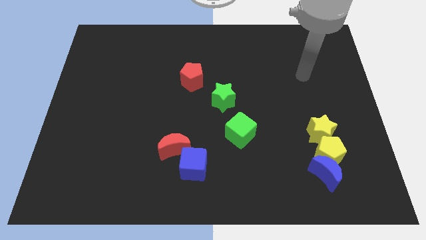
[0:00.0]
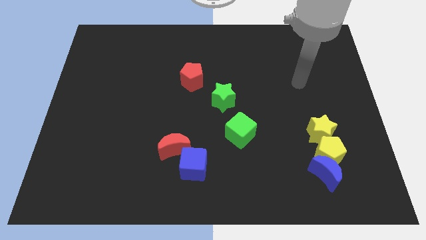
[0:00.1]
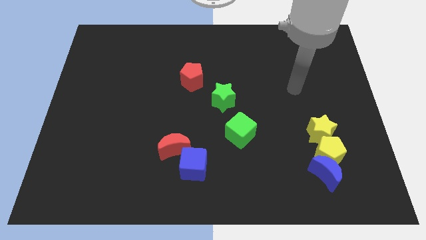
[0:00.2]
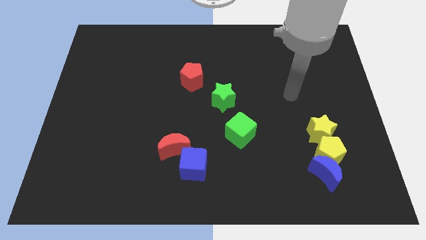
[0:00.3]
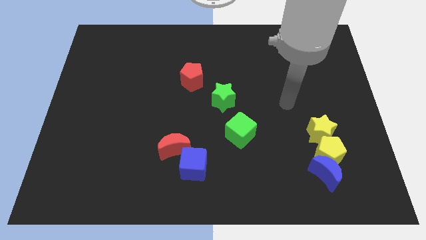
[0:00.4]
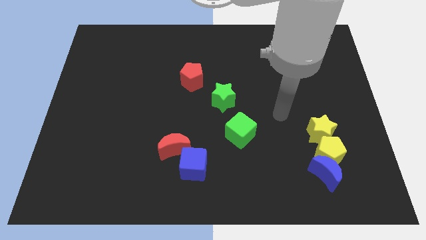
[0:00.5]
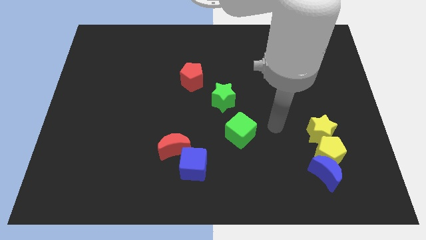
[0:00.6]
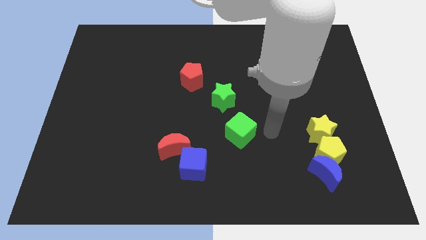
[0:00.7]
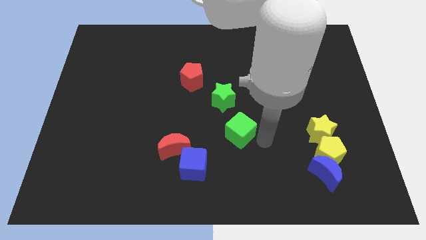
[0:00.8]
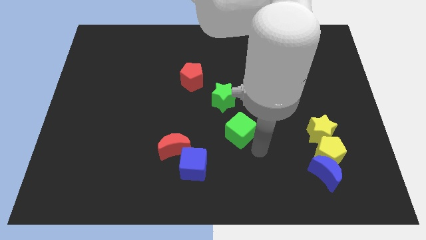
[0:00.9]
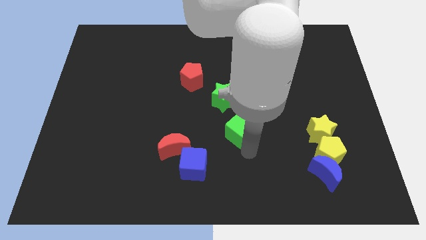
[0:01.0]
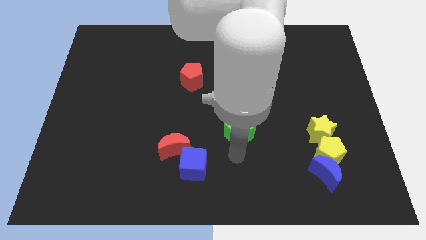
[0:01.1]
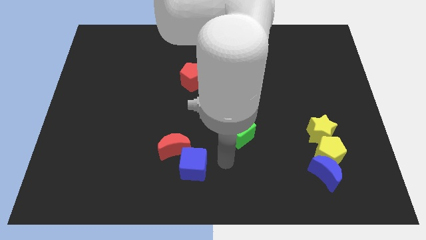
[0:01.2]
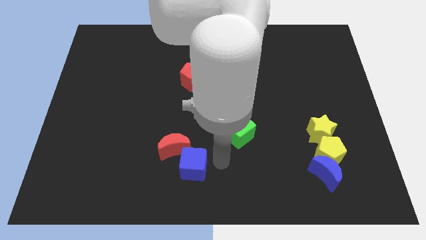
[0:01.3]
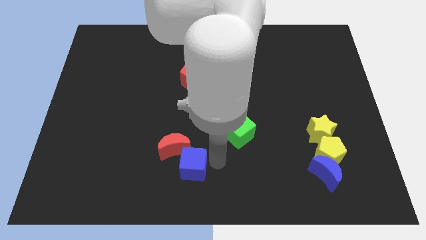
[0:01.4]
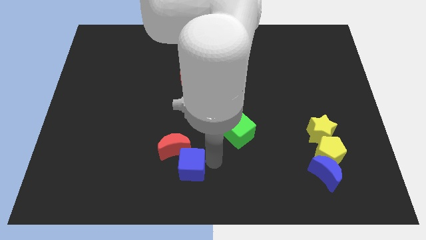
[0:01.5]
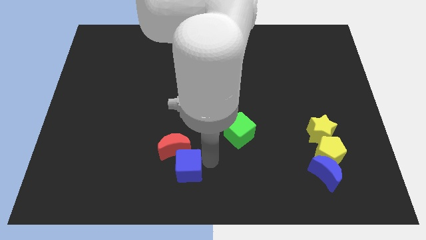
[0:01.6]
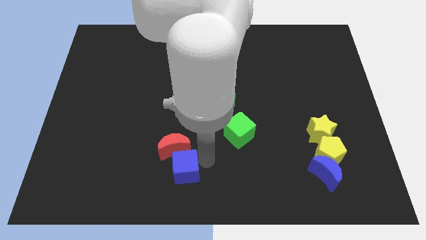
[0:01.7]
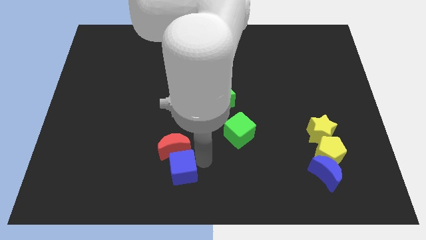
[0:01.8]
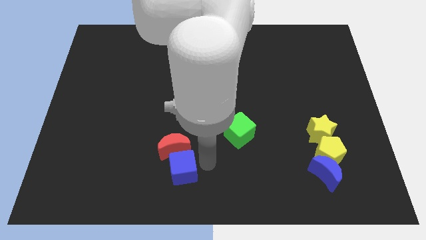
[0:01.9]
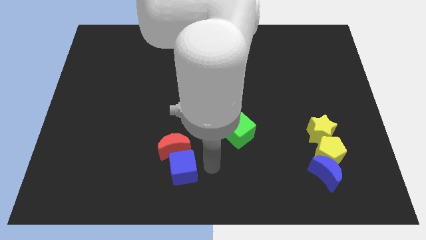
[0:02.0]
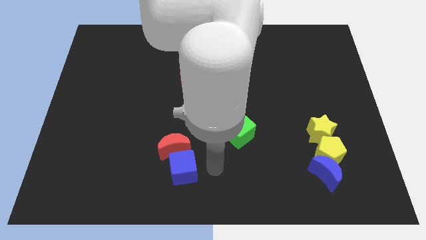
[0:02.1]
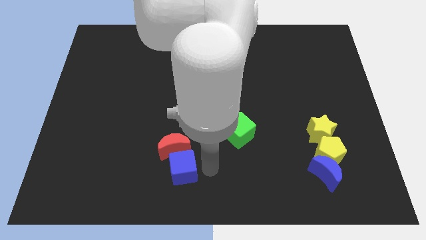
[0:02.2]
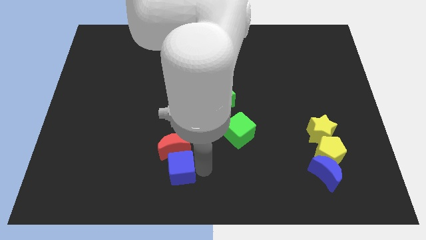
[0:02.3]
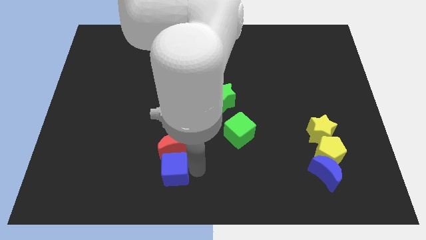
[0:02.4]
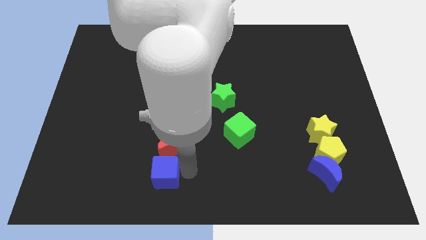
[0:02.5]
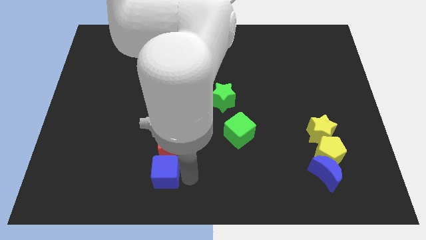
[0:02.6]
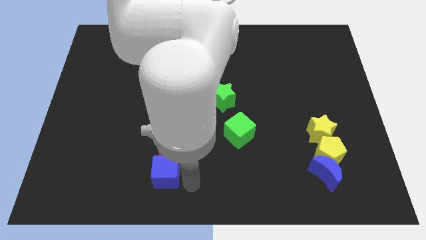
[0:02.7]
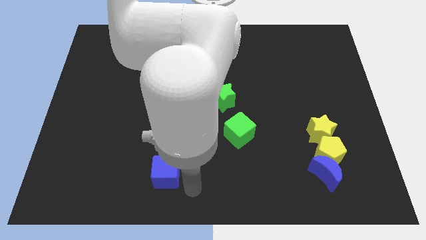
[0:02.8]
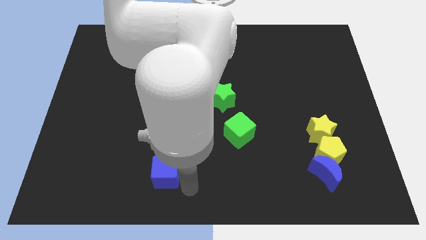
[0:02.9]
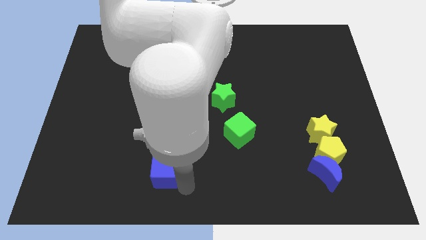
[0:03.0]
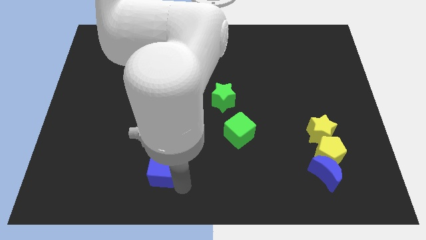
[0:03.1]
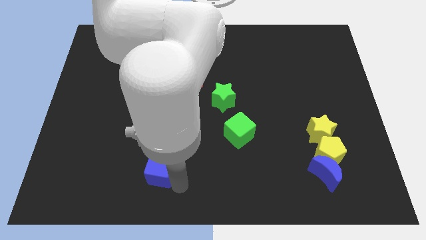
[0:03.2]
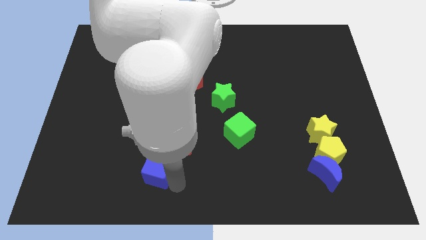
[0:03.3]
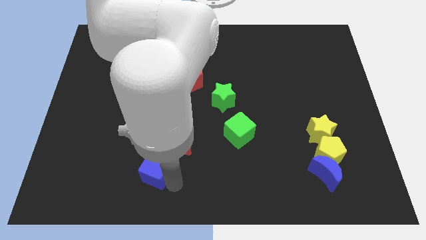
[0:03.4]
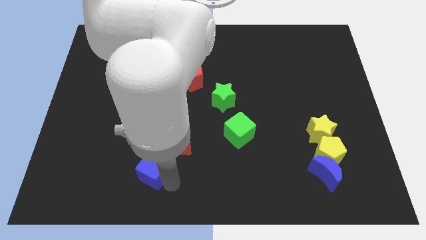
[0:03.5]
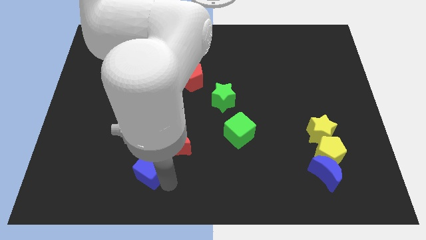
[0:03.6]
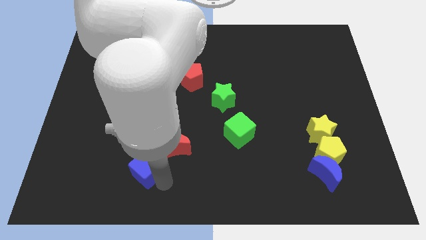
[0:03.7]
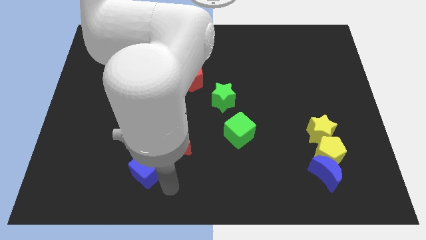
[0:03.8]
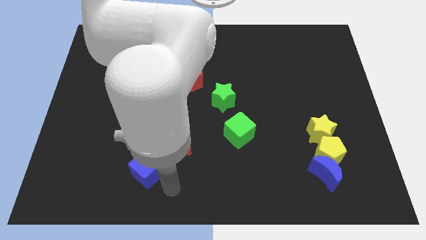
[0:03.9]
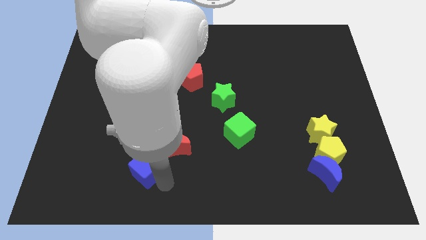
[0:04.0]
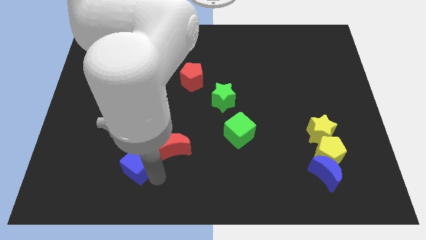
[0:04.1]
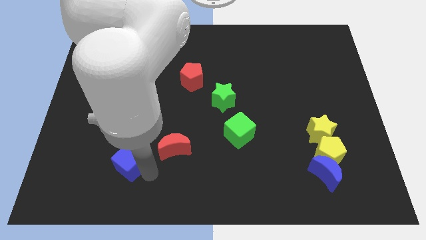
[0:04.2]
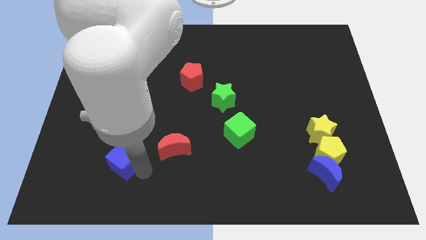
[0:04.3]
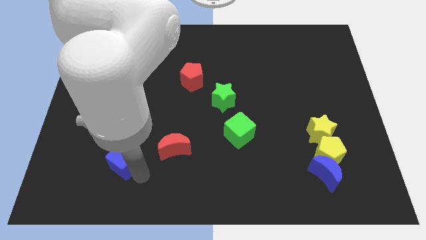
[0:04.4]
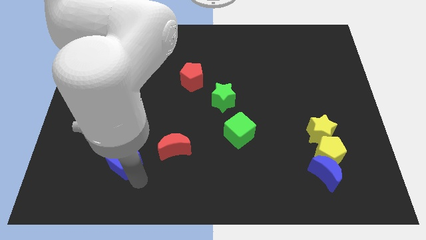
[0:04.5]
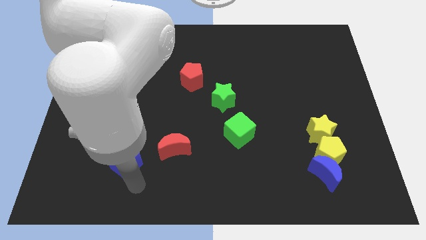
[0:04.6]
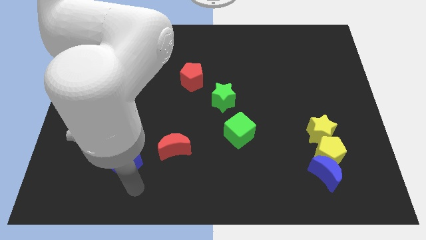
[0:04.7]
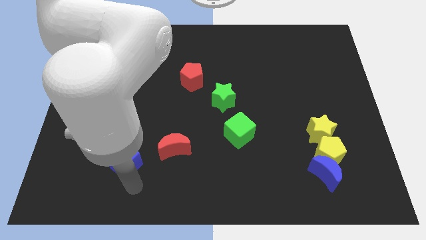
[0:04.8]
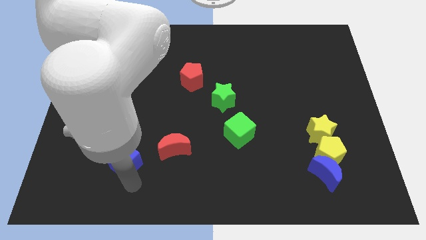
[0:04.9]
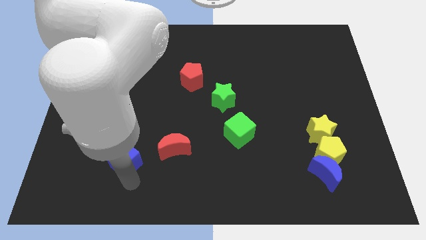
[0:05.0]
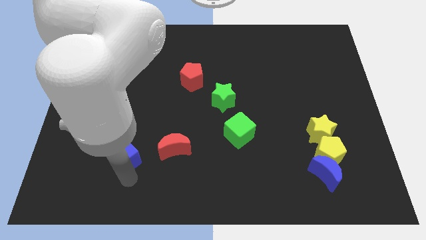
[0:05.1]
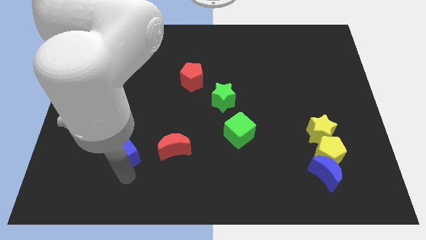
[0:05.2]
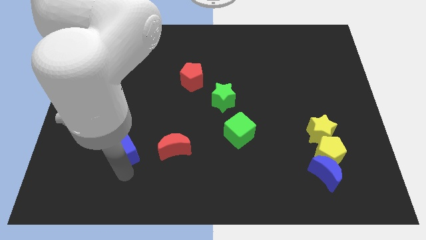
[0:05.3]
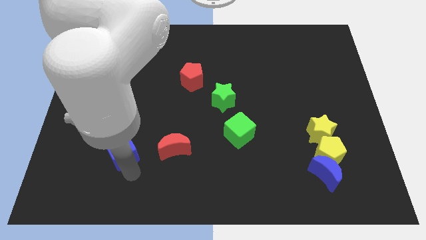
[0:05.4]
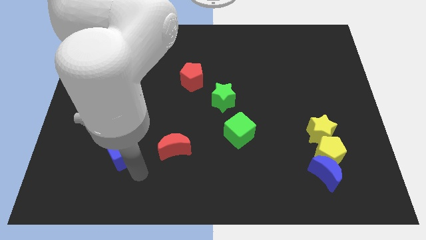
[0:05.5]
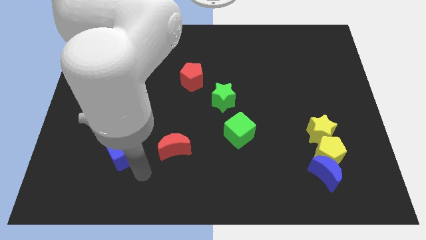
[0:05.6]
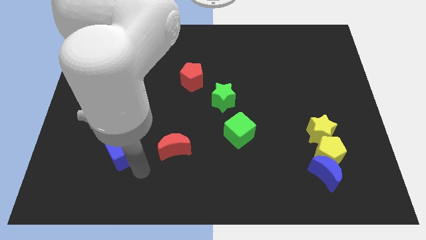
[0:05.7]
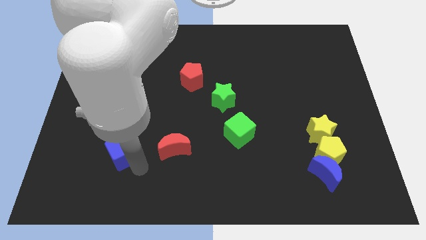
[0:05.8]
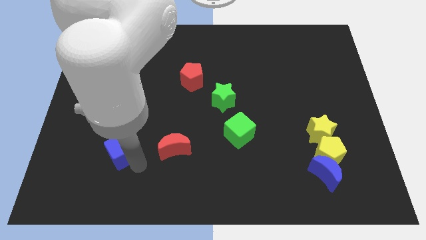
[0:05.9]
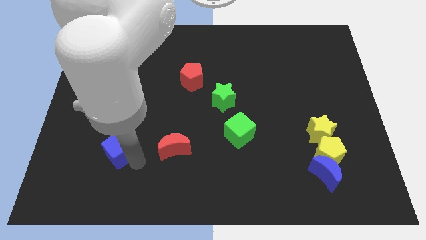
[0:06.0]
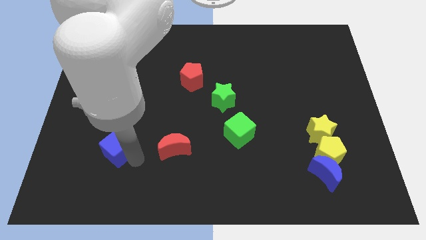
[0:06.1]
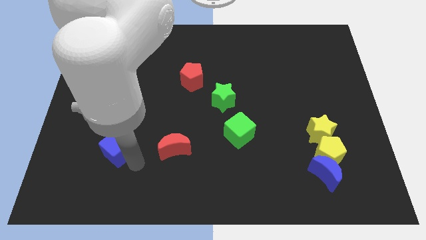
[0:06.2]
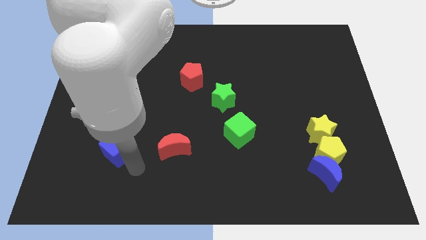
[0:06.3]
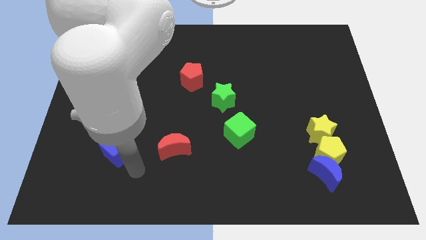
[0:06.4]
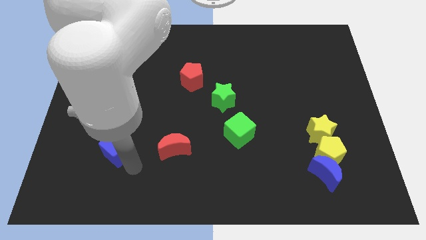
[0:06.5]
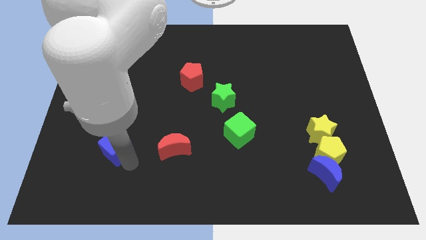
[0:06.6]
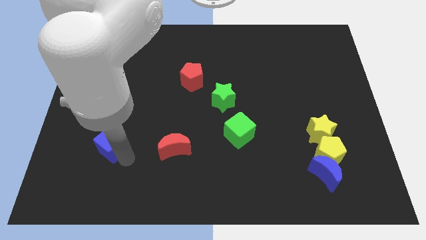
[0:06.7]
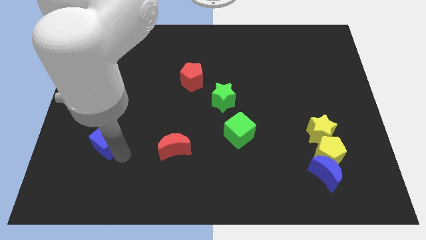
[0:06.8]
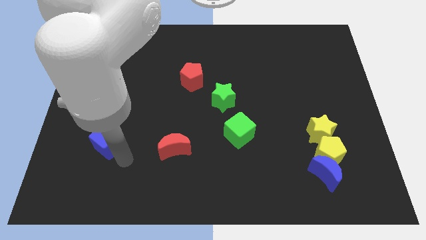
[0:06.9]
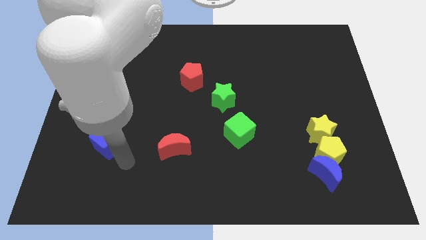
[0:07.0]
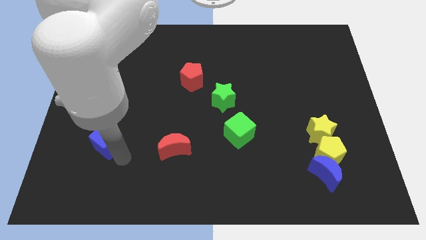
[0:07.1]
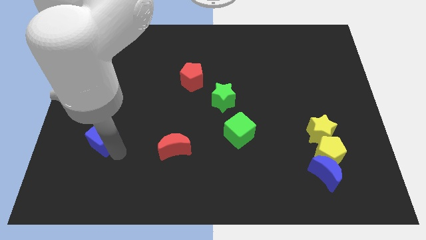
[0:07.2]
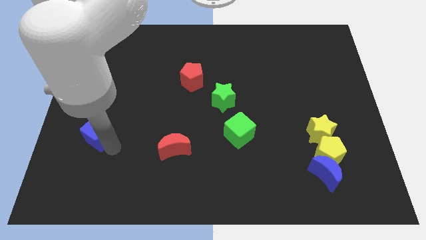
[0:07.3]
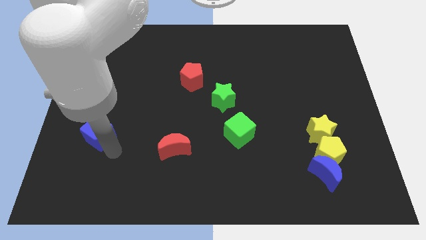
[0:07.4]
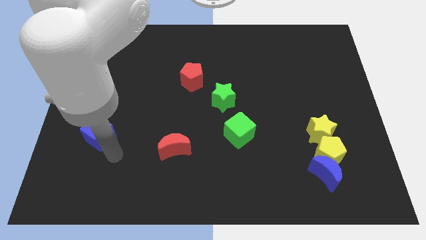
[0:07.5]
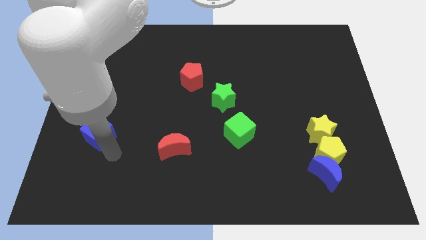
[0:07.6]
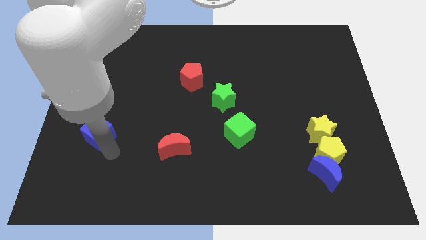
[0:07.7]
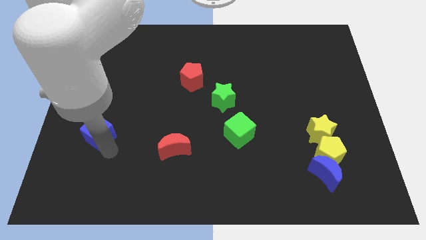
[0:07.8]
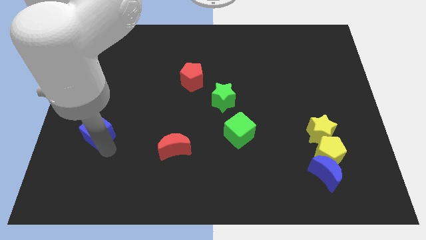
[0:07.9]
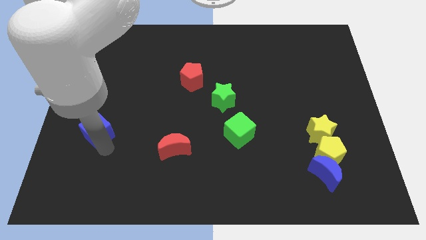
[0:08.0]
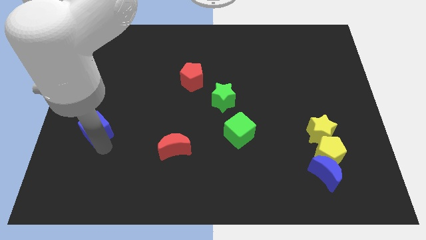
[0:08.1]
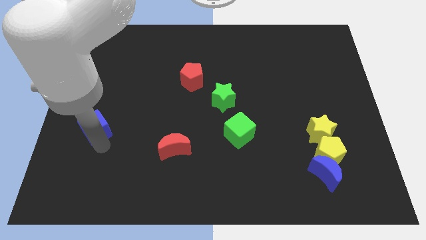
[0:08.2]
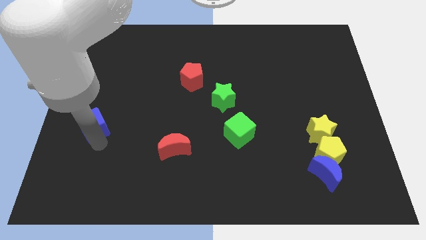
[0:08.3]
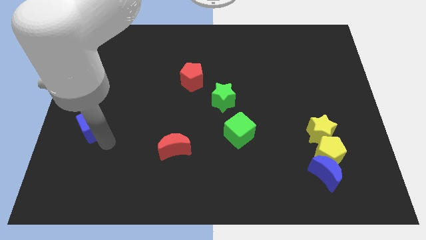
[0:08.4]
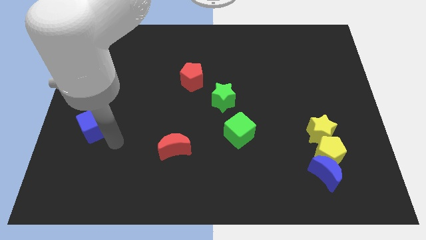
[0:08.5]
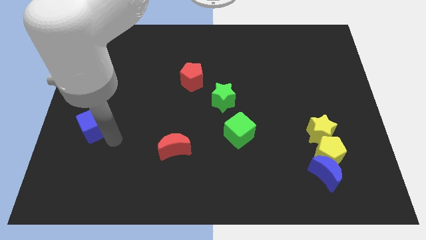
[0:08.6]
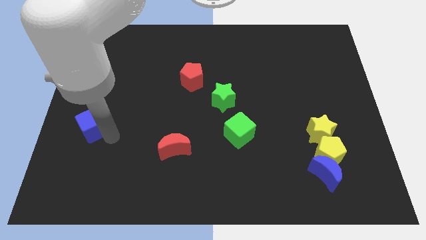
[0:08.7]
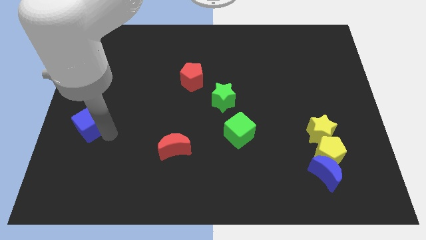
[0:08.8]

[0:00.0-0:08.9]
slide the blue cube to the left side
